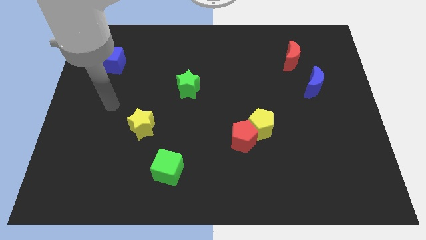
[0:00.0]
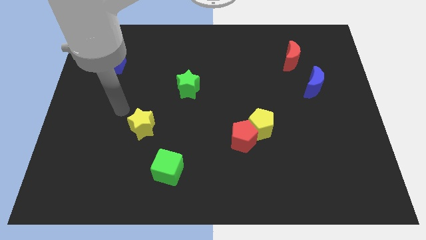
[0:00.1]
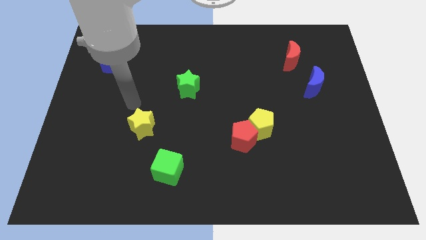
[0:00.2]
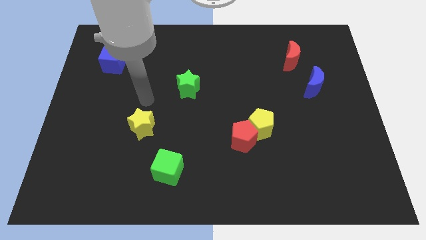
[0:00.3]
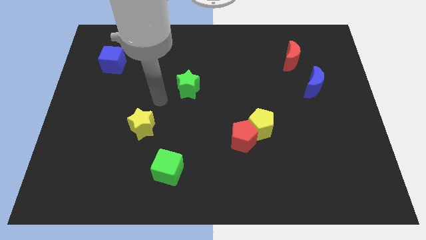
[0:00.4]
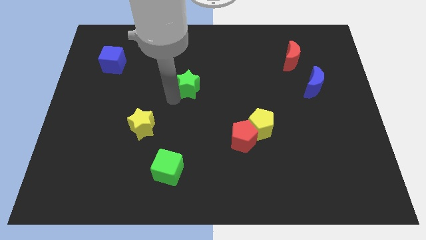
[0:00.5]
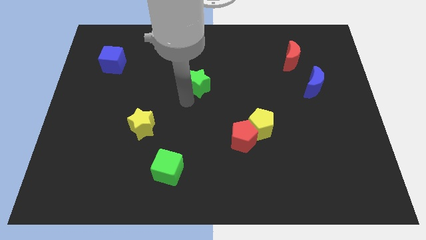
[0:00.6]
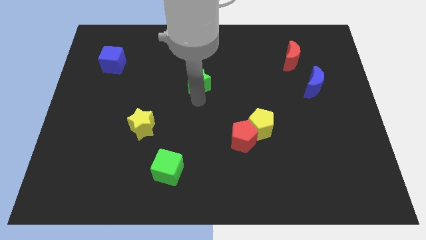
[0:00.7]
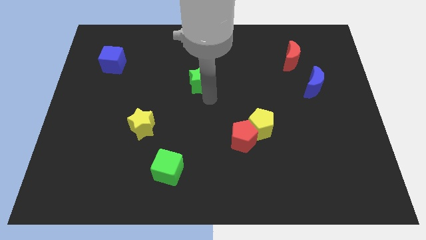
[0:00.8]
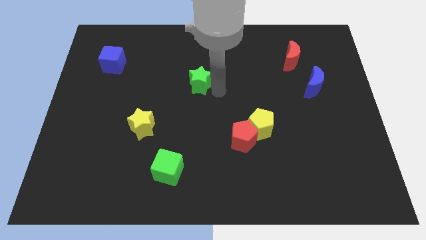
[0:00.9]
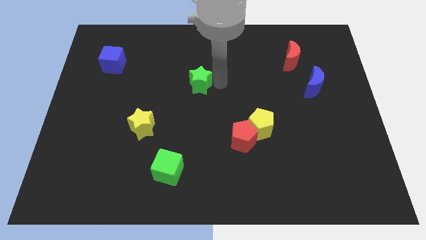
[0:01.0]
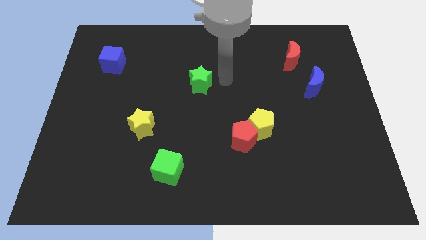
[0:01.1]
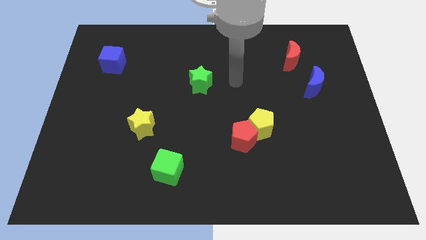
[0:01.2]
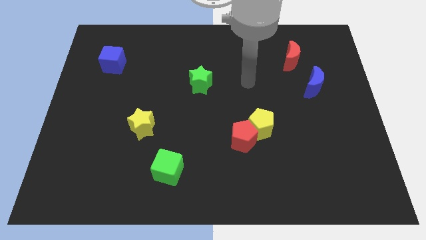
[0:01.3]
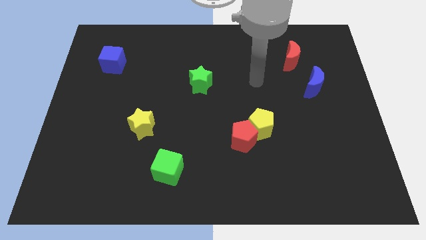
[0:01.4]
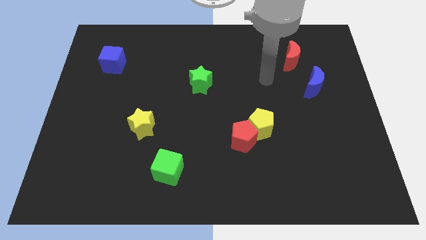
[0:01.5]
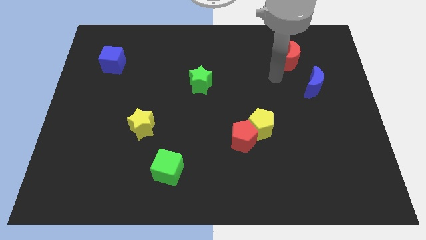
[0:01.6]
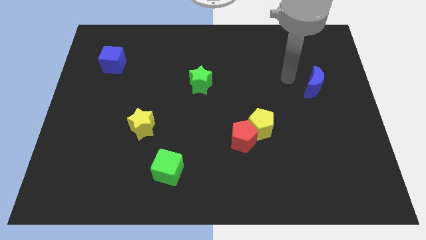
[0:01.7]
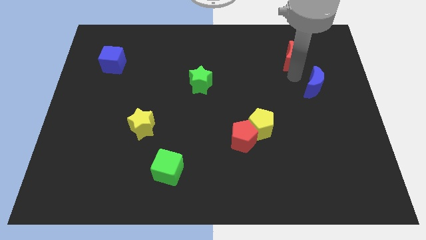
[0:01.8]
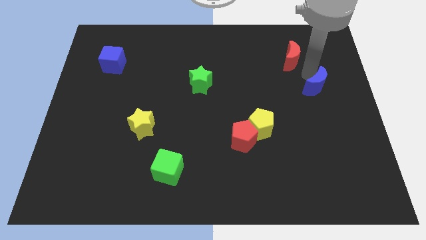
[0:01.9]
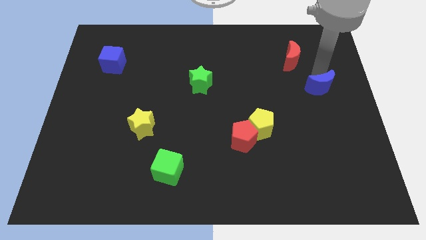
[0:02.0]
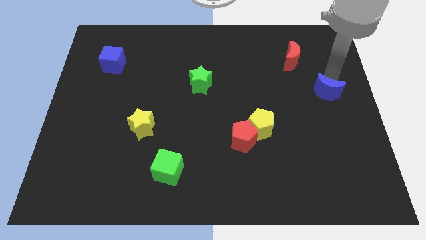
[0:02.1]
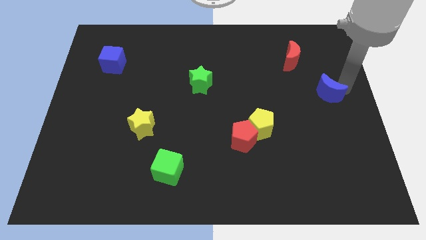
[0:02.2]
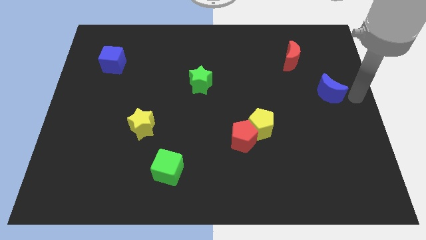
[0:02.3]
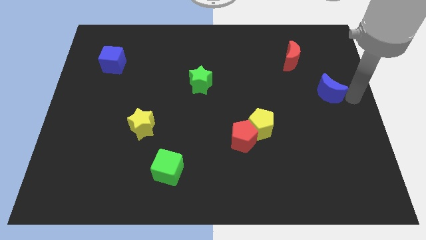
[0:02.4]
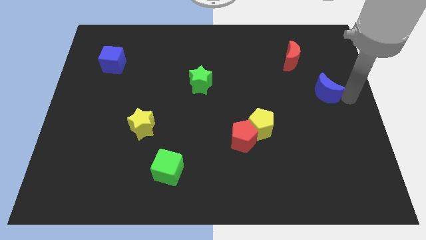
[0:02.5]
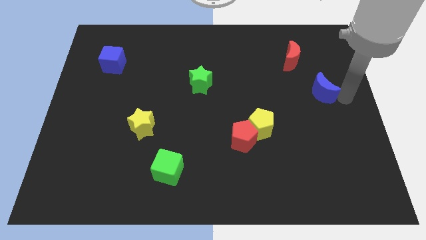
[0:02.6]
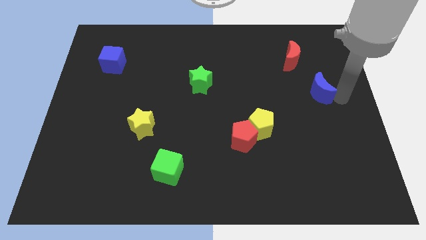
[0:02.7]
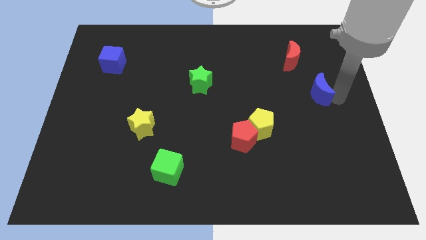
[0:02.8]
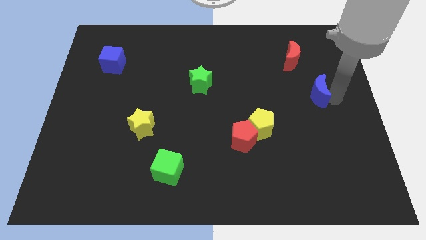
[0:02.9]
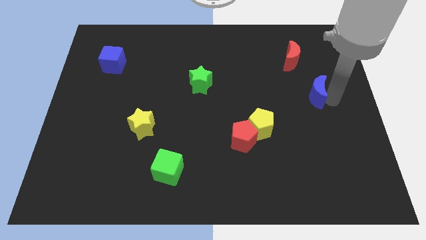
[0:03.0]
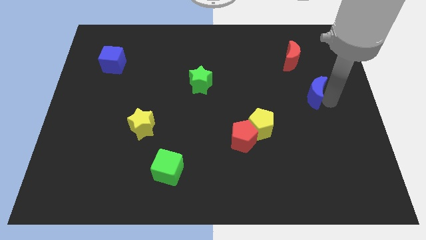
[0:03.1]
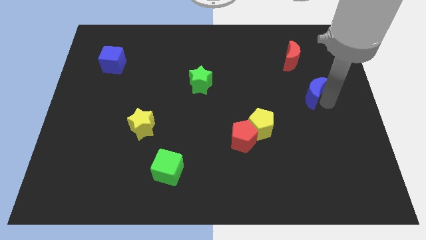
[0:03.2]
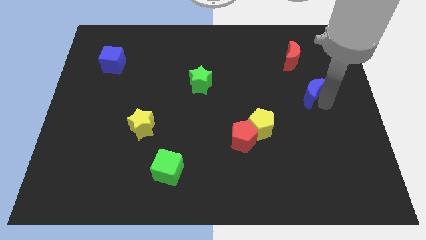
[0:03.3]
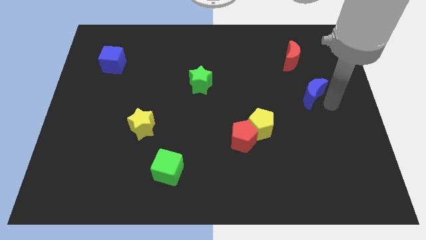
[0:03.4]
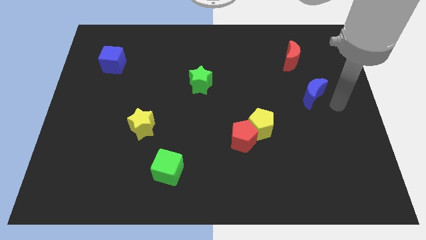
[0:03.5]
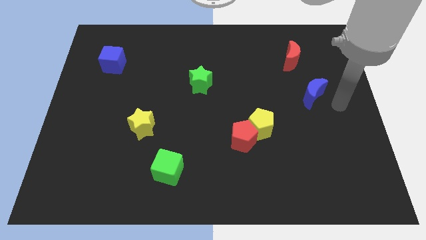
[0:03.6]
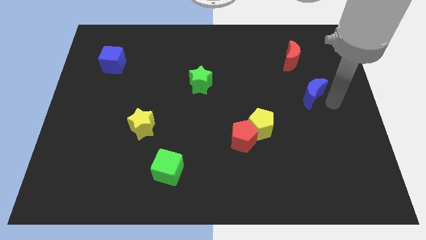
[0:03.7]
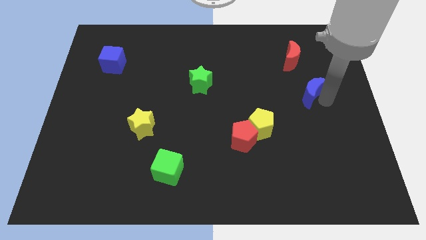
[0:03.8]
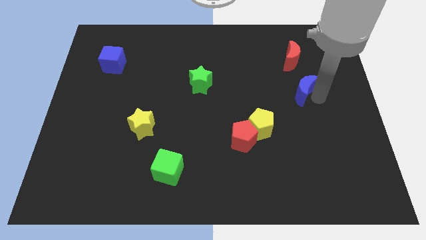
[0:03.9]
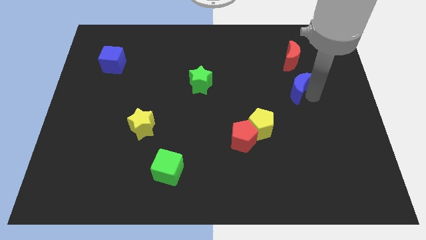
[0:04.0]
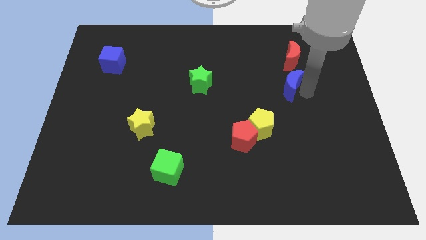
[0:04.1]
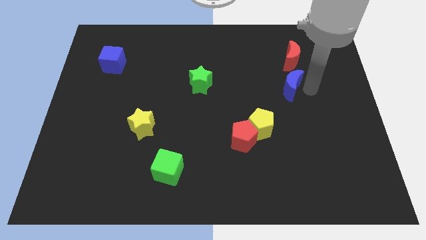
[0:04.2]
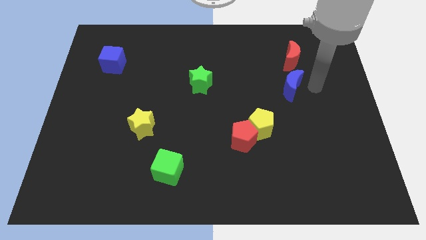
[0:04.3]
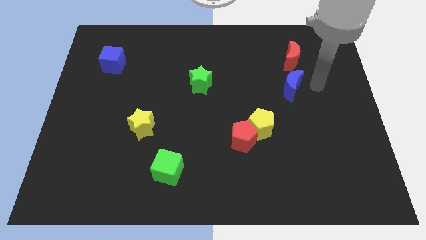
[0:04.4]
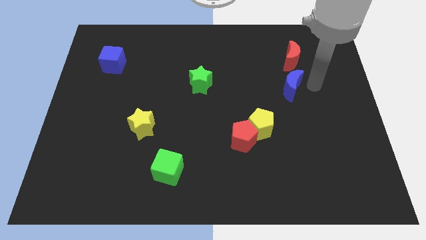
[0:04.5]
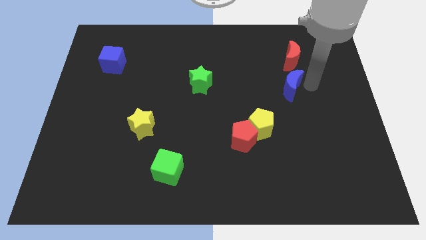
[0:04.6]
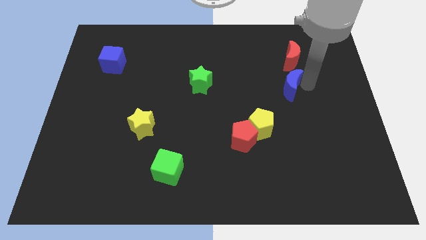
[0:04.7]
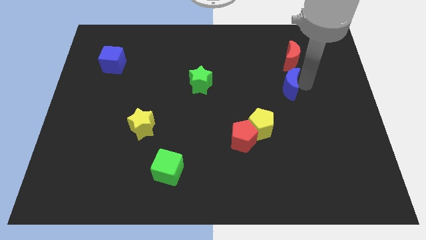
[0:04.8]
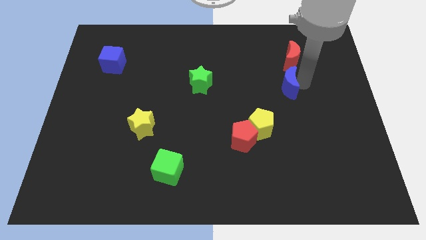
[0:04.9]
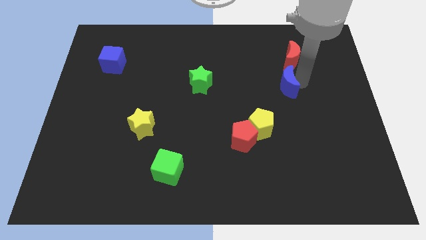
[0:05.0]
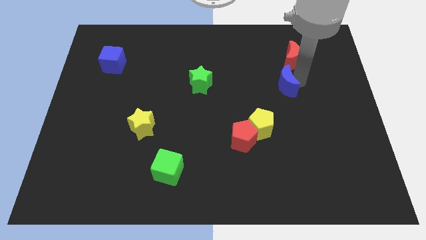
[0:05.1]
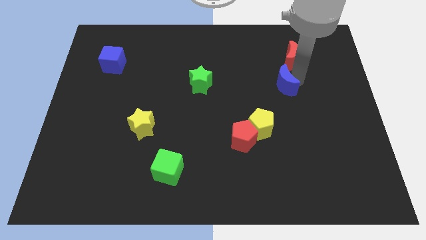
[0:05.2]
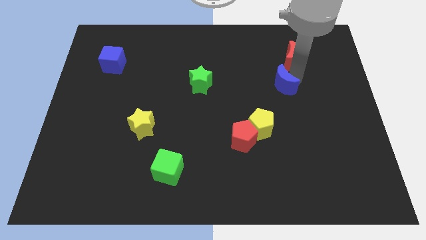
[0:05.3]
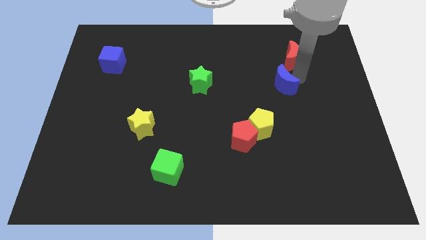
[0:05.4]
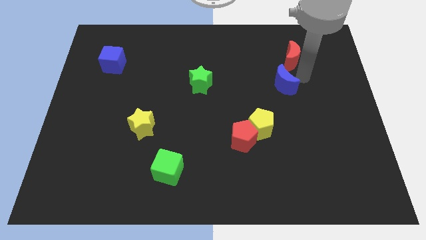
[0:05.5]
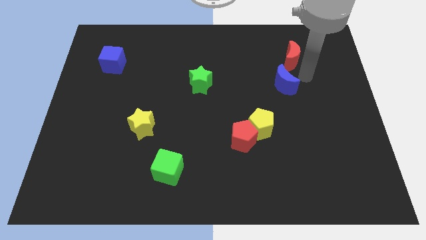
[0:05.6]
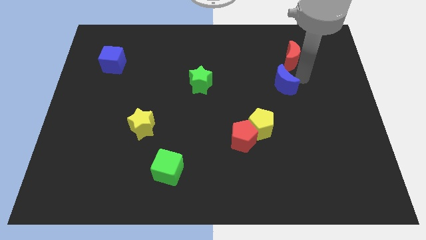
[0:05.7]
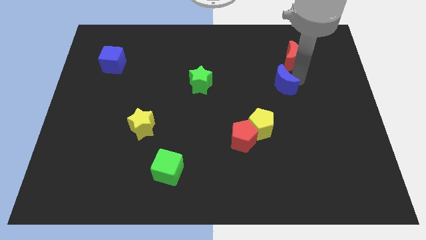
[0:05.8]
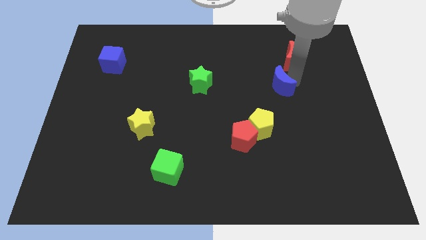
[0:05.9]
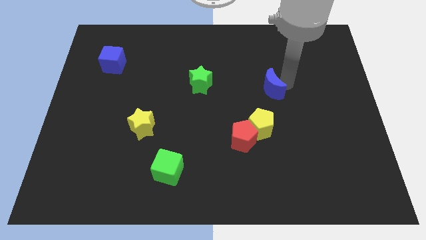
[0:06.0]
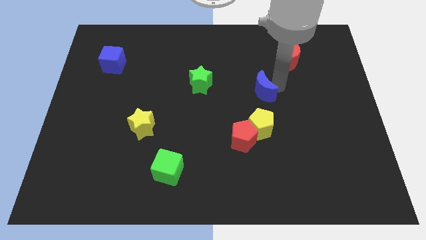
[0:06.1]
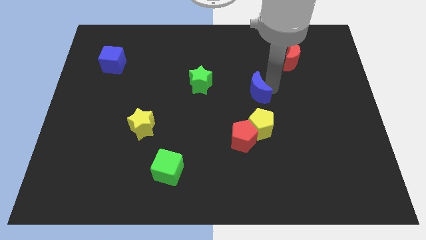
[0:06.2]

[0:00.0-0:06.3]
push the blue moon to the top side of the red pentagon

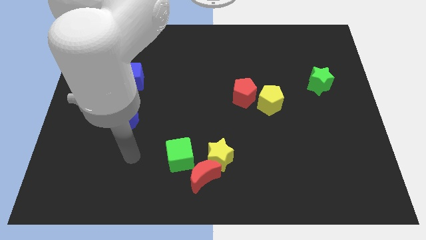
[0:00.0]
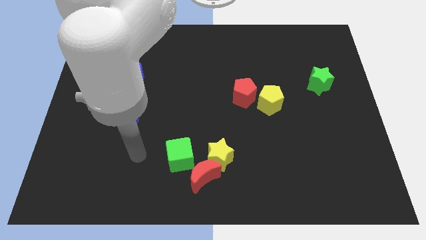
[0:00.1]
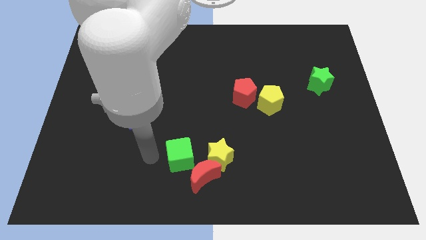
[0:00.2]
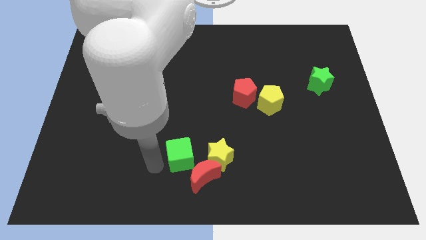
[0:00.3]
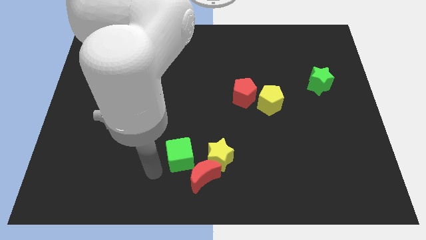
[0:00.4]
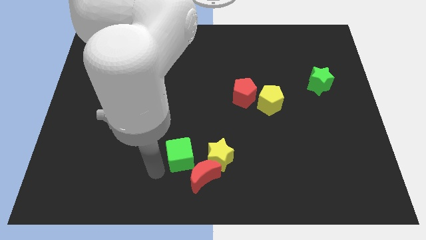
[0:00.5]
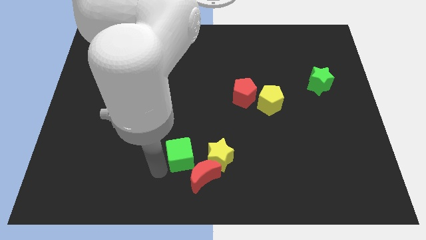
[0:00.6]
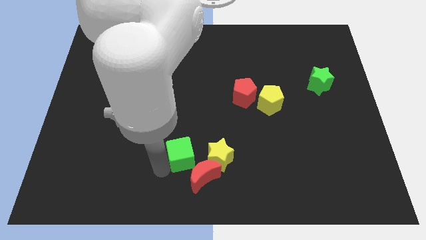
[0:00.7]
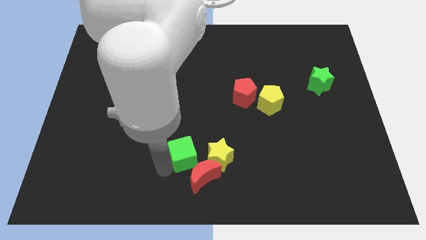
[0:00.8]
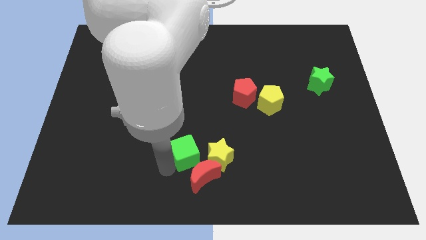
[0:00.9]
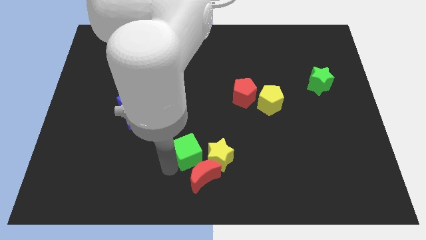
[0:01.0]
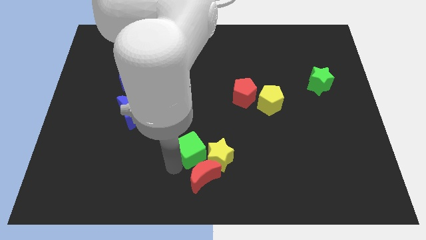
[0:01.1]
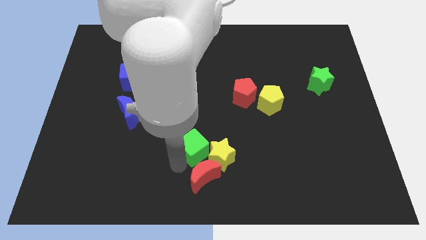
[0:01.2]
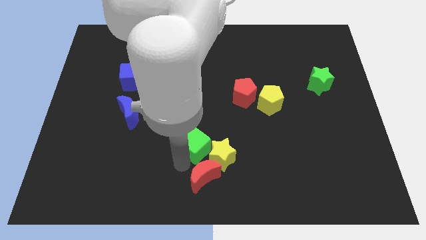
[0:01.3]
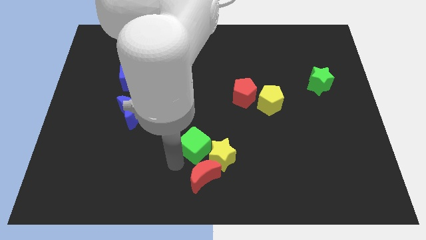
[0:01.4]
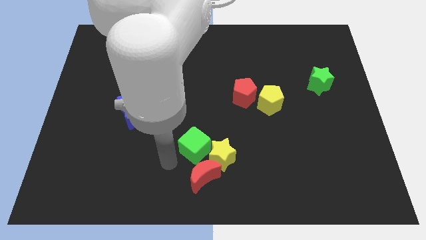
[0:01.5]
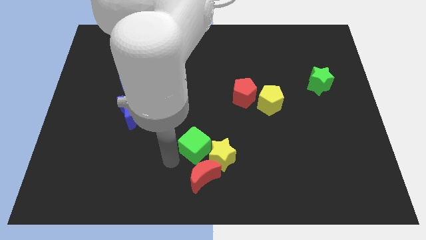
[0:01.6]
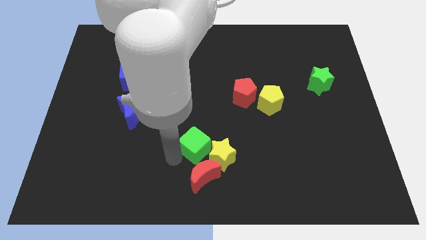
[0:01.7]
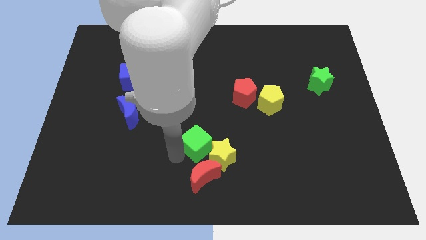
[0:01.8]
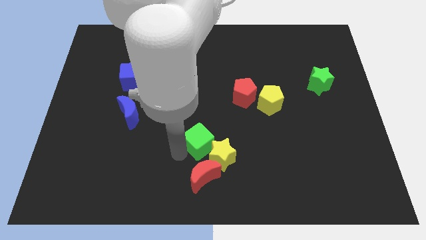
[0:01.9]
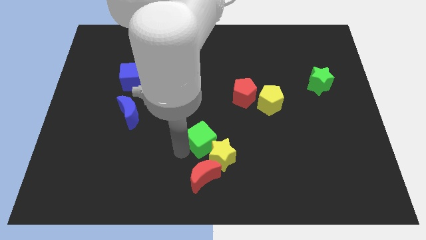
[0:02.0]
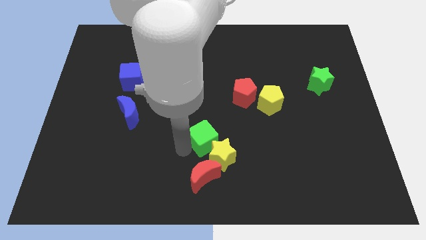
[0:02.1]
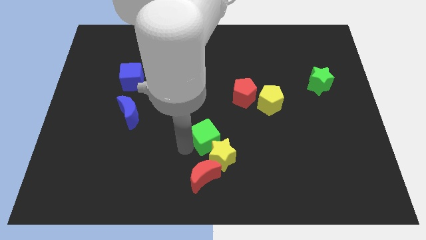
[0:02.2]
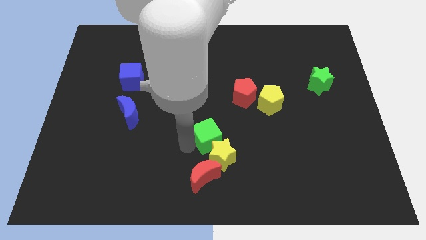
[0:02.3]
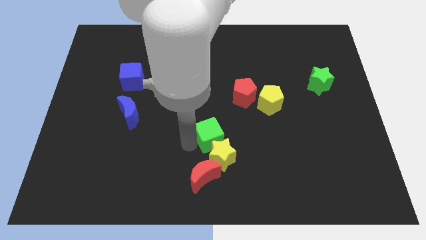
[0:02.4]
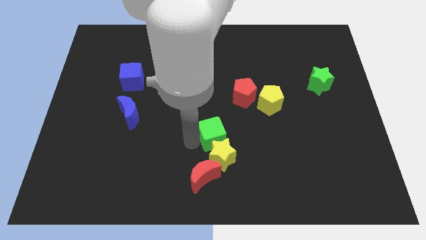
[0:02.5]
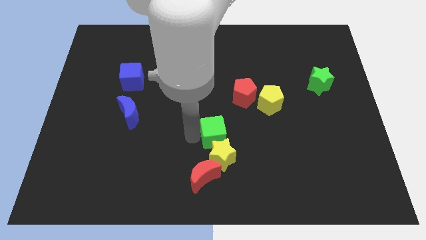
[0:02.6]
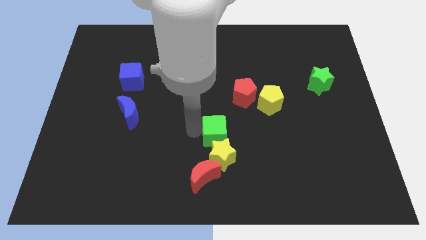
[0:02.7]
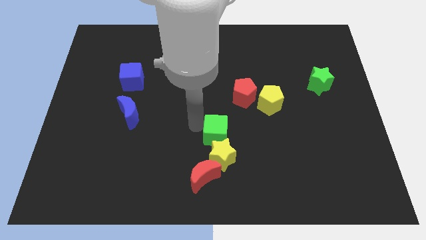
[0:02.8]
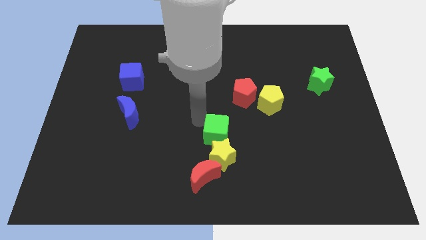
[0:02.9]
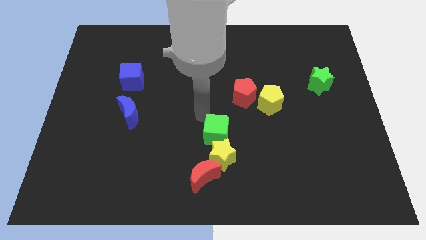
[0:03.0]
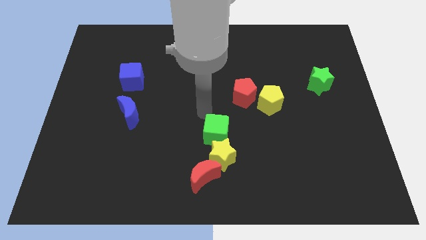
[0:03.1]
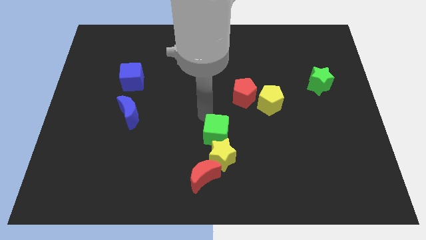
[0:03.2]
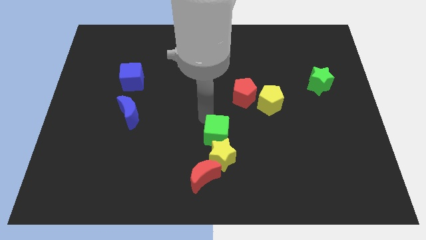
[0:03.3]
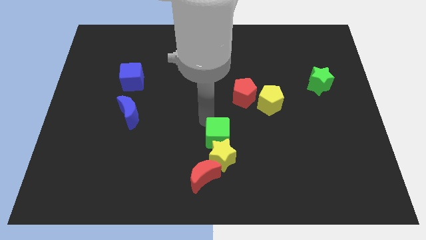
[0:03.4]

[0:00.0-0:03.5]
put the green cube to the top right side of the red moon
